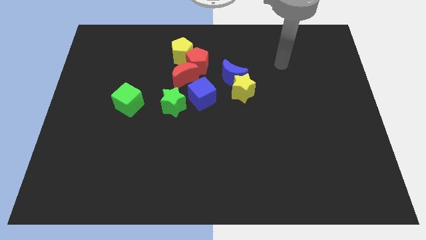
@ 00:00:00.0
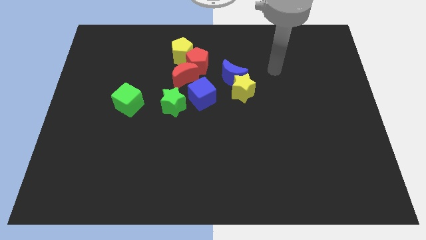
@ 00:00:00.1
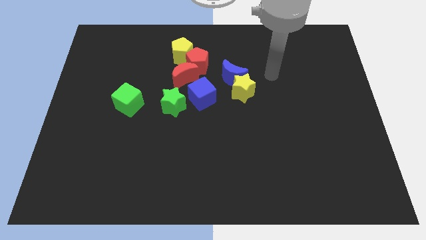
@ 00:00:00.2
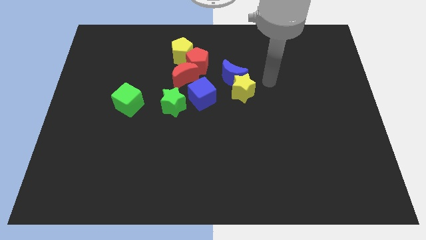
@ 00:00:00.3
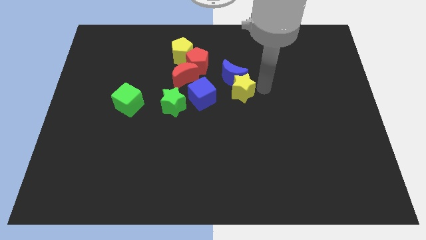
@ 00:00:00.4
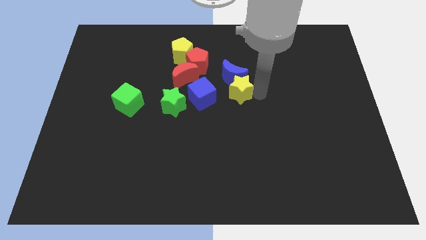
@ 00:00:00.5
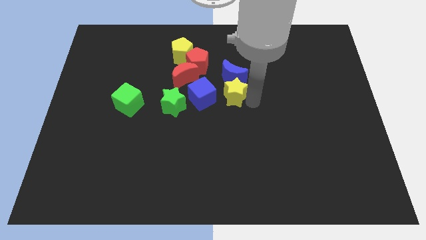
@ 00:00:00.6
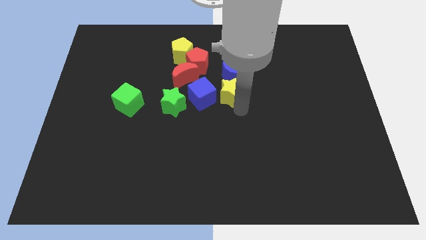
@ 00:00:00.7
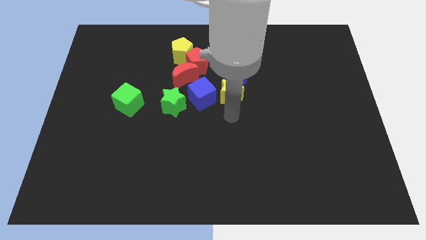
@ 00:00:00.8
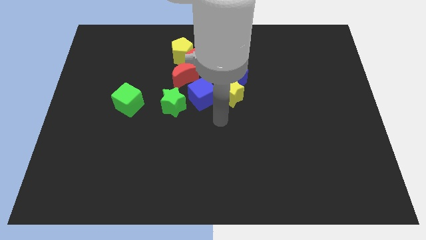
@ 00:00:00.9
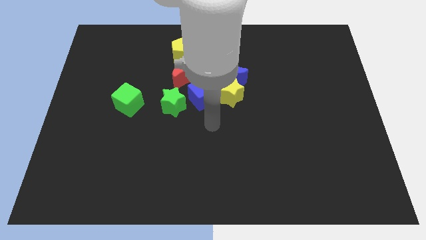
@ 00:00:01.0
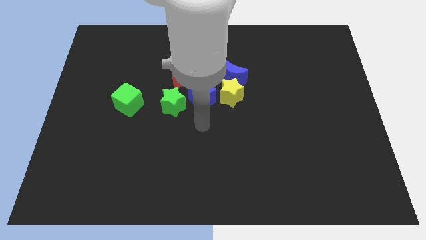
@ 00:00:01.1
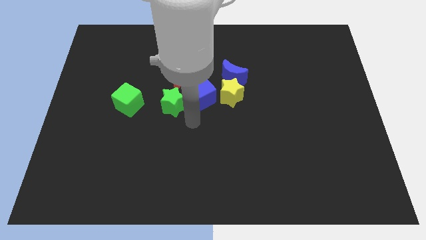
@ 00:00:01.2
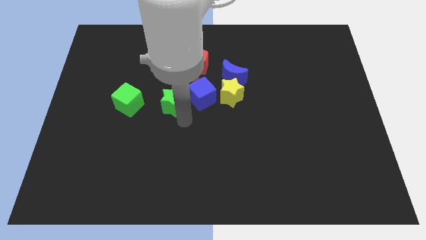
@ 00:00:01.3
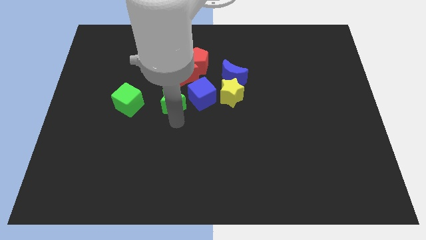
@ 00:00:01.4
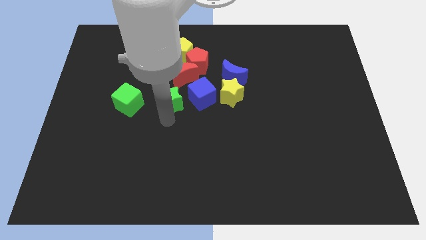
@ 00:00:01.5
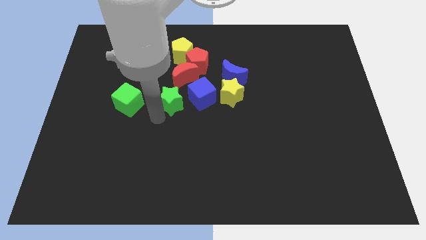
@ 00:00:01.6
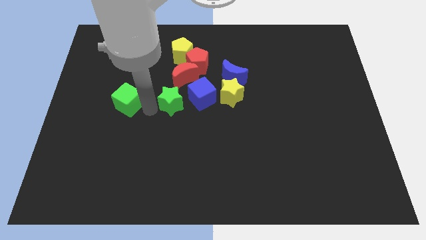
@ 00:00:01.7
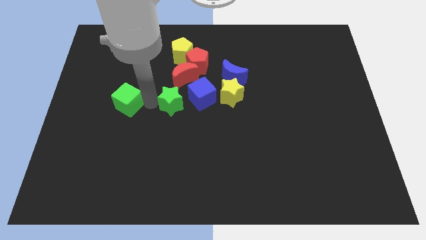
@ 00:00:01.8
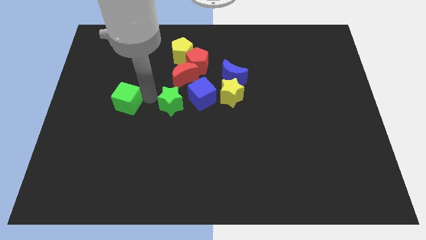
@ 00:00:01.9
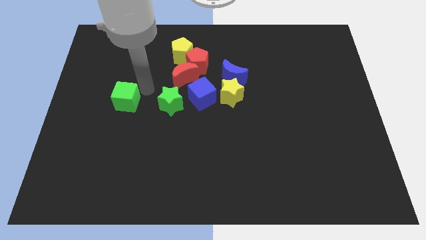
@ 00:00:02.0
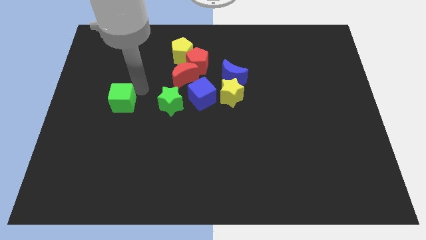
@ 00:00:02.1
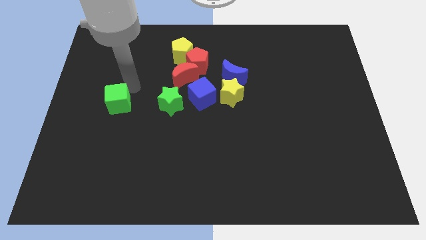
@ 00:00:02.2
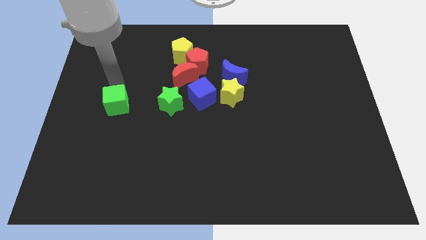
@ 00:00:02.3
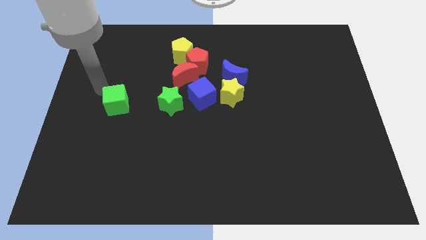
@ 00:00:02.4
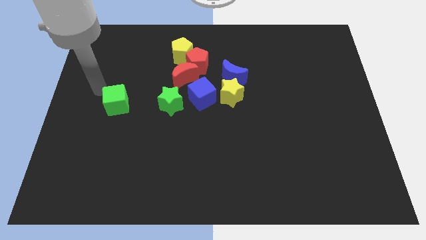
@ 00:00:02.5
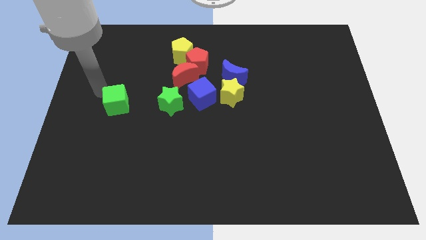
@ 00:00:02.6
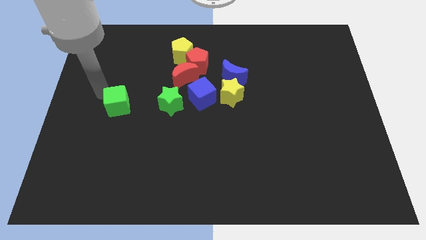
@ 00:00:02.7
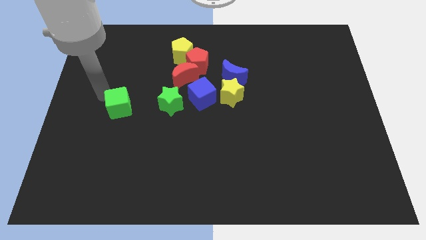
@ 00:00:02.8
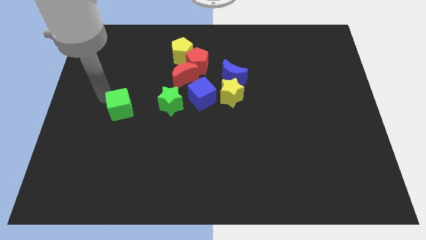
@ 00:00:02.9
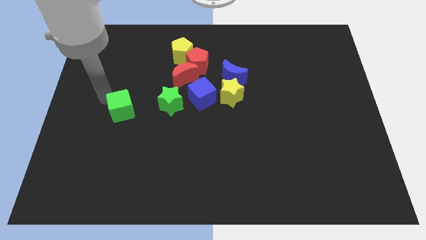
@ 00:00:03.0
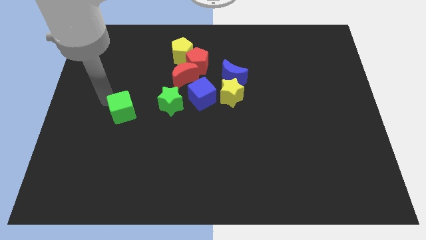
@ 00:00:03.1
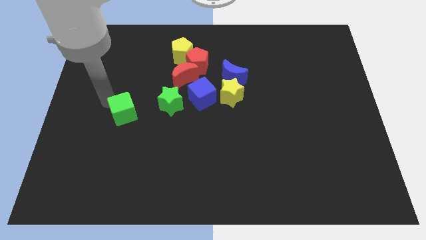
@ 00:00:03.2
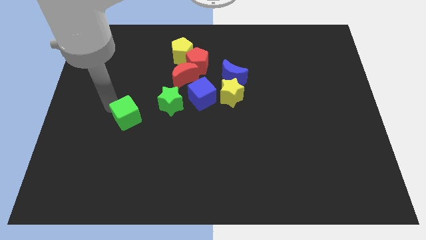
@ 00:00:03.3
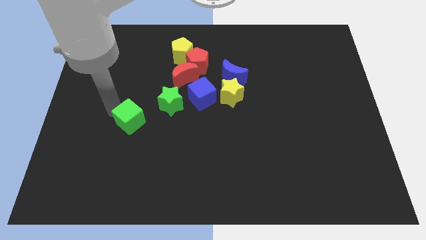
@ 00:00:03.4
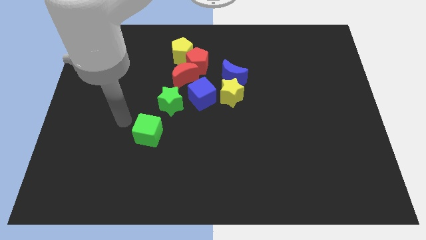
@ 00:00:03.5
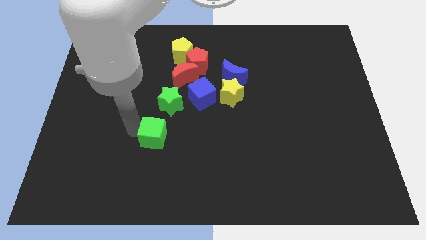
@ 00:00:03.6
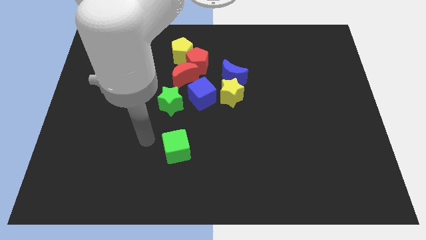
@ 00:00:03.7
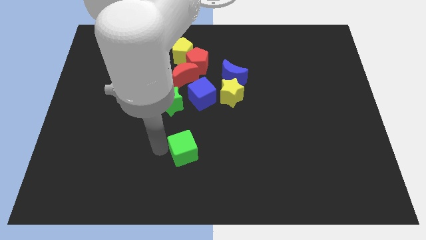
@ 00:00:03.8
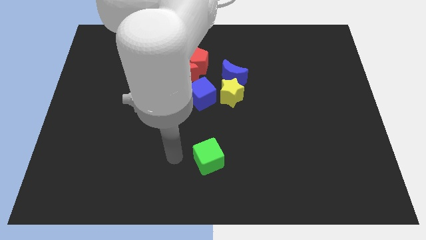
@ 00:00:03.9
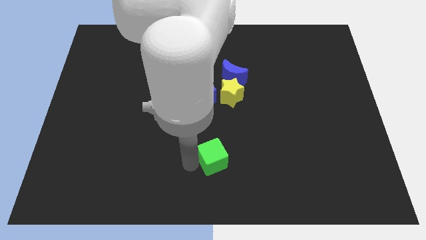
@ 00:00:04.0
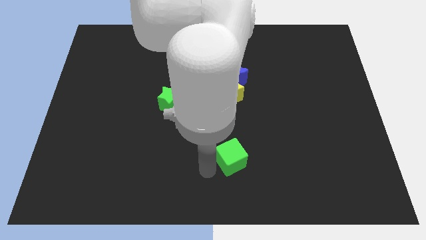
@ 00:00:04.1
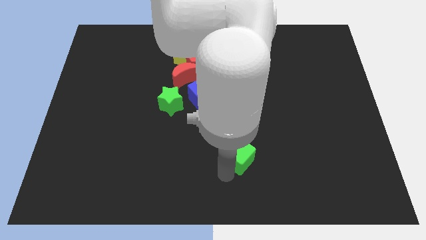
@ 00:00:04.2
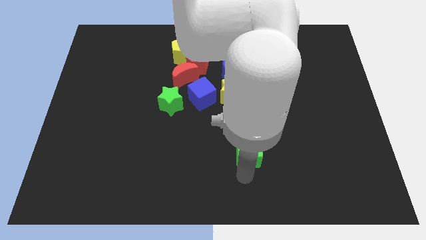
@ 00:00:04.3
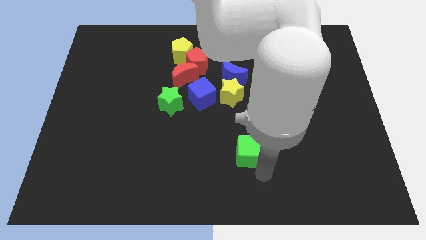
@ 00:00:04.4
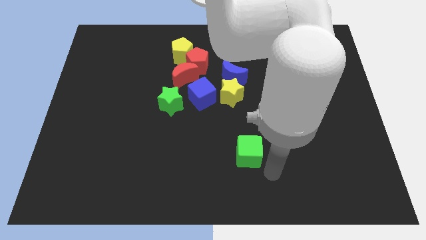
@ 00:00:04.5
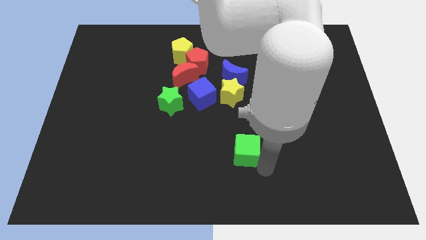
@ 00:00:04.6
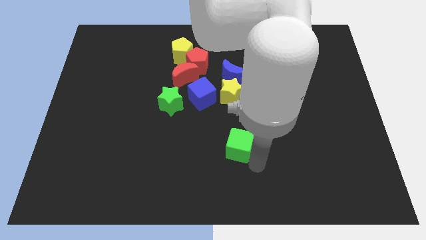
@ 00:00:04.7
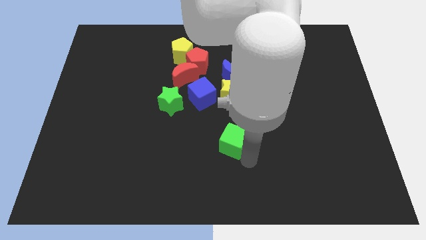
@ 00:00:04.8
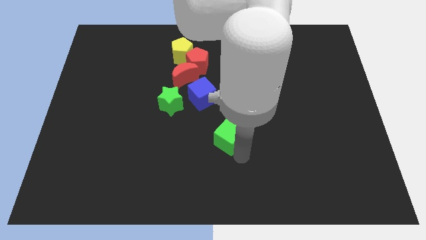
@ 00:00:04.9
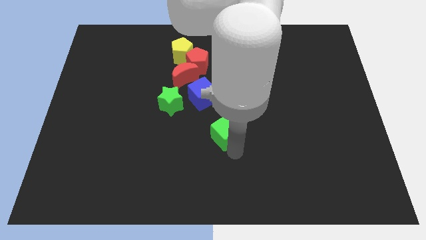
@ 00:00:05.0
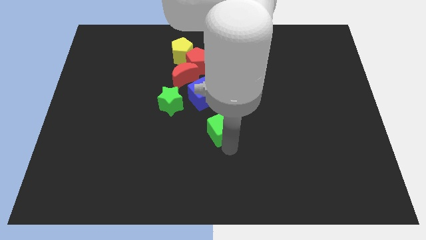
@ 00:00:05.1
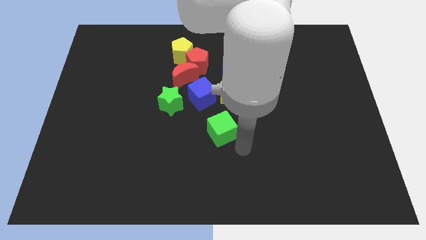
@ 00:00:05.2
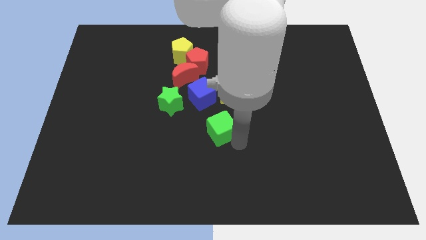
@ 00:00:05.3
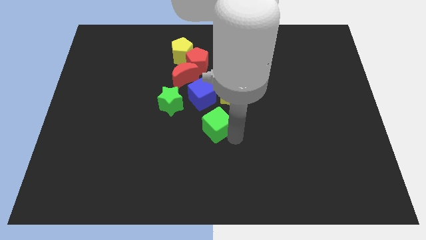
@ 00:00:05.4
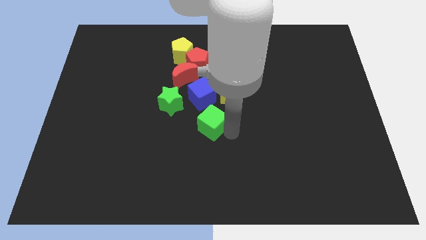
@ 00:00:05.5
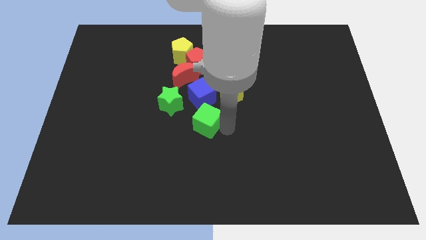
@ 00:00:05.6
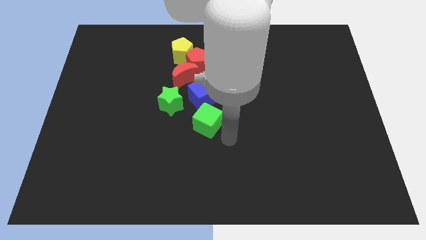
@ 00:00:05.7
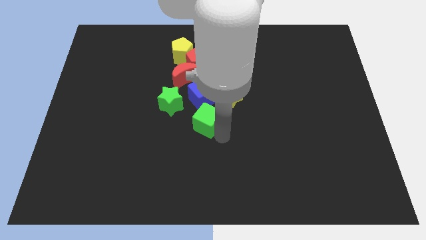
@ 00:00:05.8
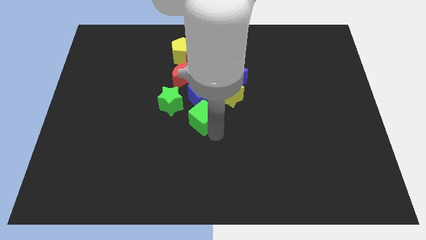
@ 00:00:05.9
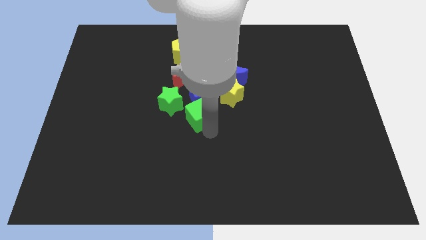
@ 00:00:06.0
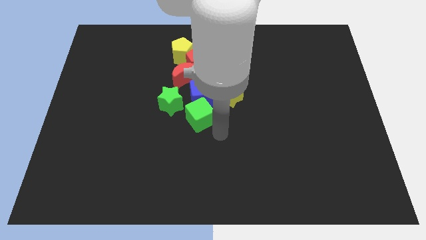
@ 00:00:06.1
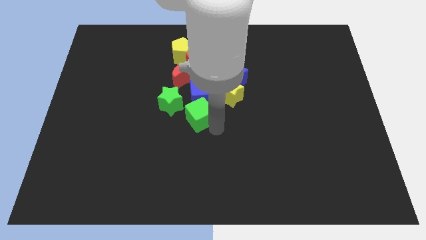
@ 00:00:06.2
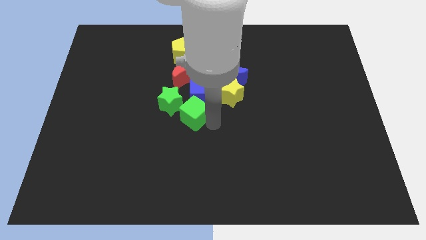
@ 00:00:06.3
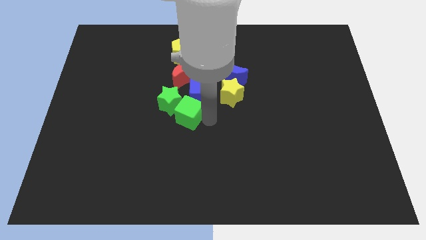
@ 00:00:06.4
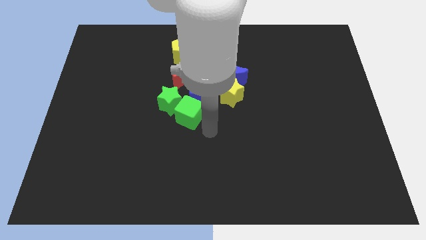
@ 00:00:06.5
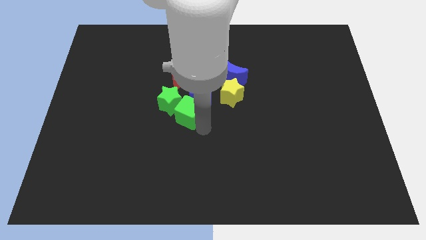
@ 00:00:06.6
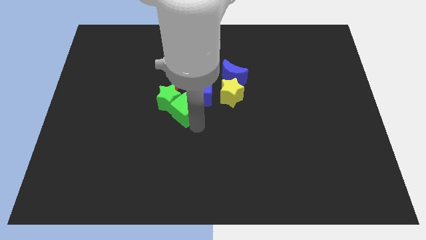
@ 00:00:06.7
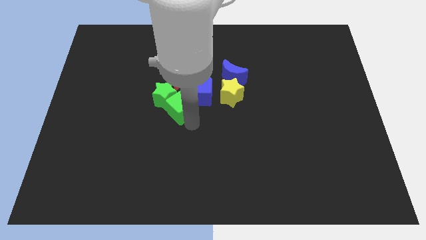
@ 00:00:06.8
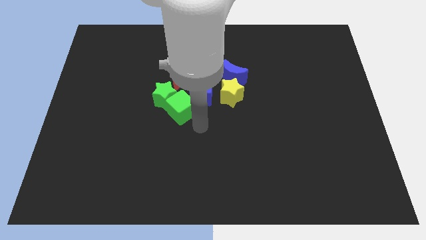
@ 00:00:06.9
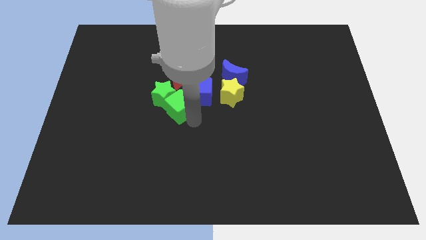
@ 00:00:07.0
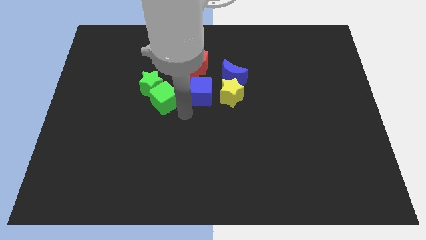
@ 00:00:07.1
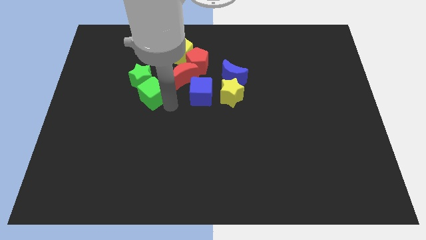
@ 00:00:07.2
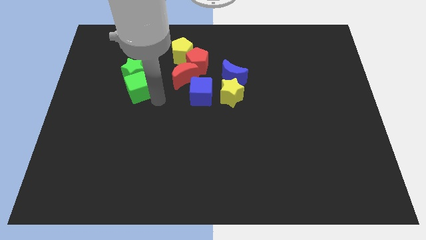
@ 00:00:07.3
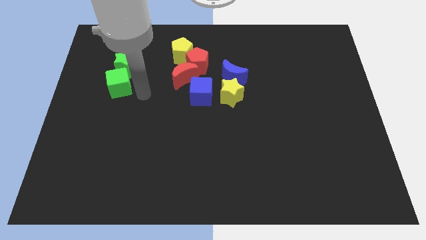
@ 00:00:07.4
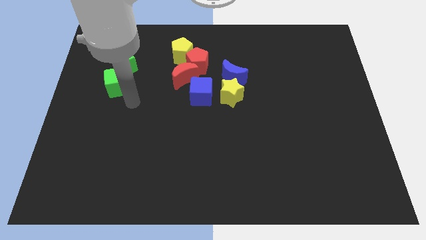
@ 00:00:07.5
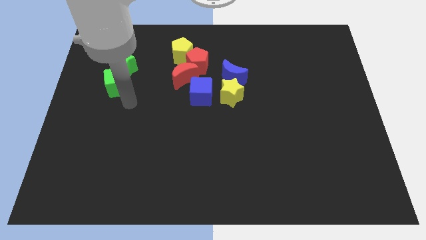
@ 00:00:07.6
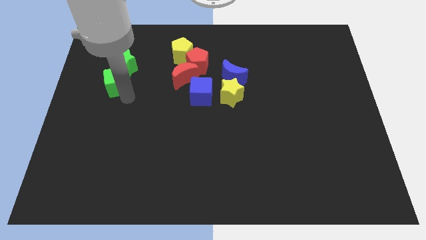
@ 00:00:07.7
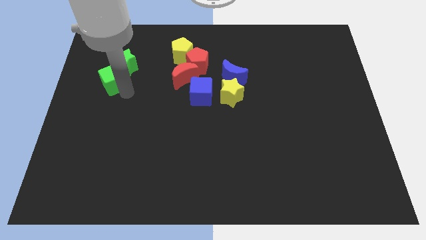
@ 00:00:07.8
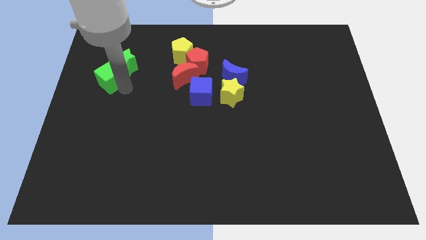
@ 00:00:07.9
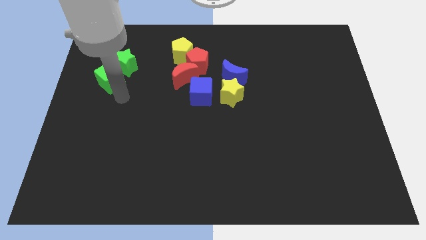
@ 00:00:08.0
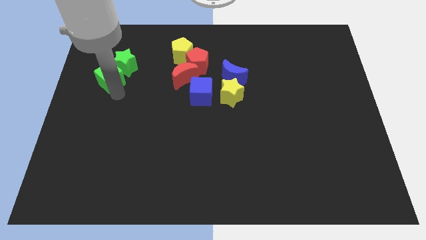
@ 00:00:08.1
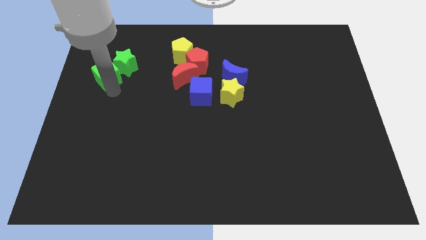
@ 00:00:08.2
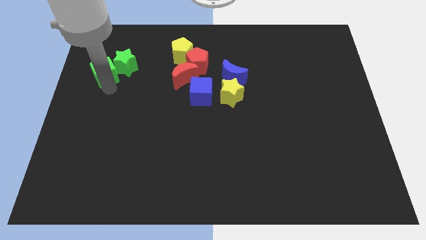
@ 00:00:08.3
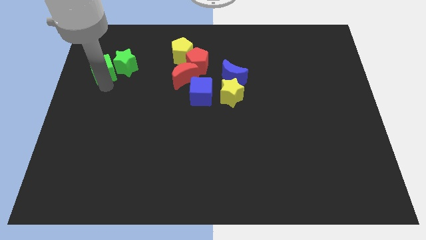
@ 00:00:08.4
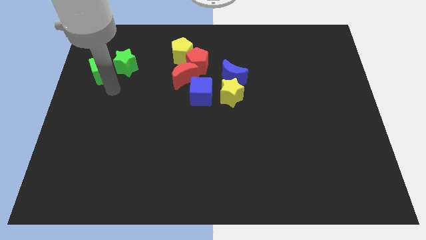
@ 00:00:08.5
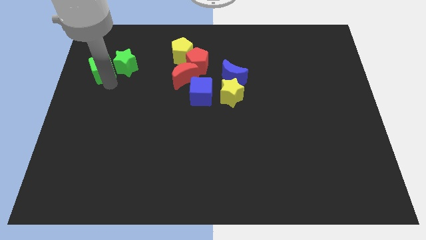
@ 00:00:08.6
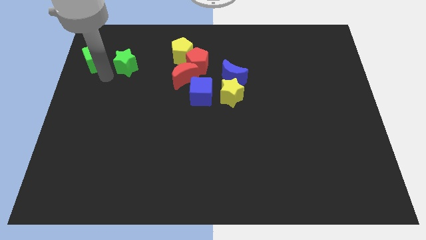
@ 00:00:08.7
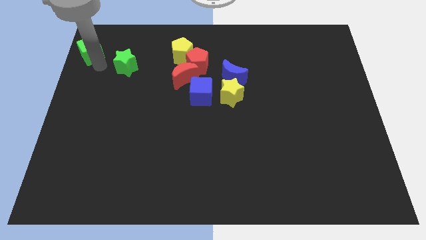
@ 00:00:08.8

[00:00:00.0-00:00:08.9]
put the green cube to the top left corner
